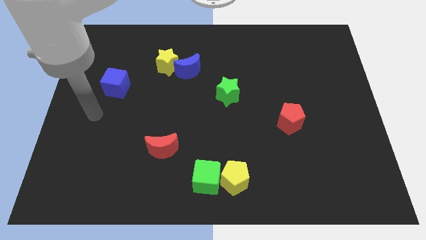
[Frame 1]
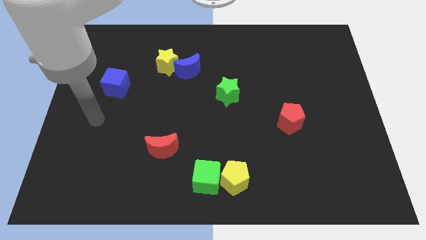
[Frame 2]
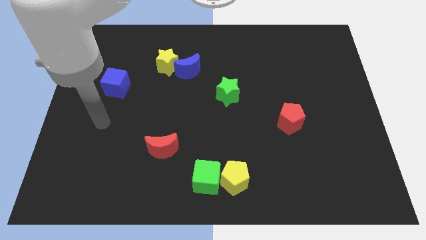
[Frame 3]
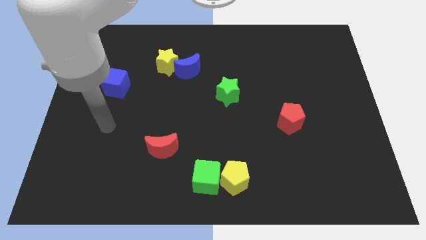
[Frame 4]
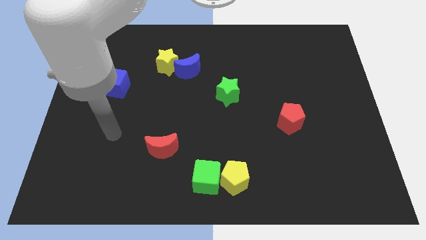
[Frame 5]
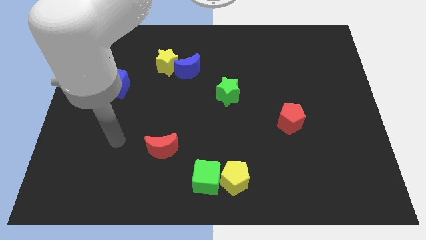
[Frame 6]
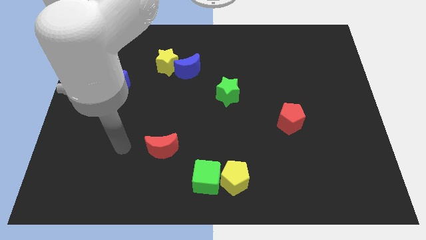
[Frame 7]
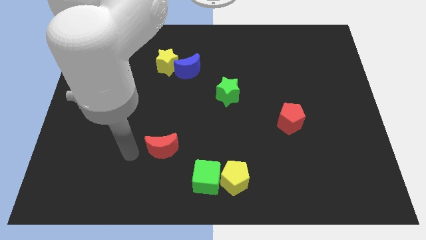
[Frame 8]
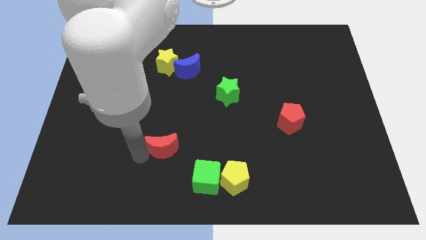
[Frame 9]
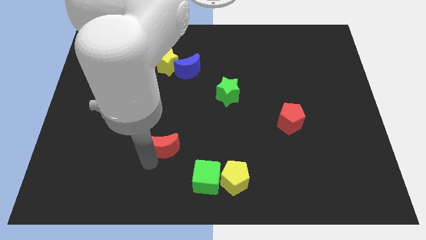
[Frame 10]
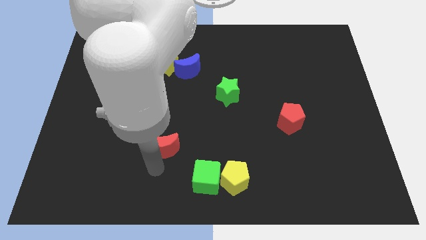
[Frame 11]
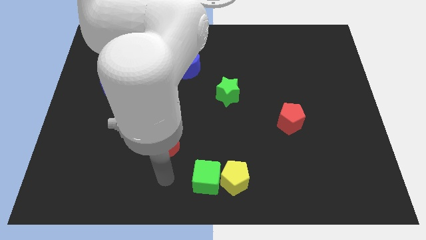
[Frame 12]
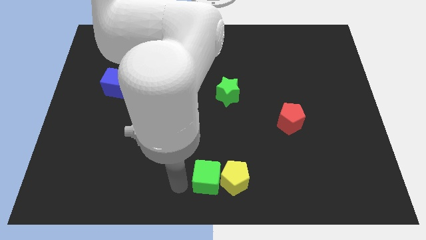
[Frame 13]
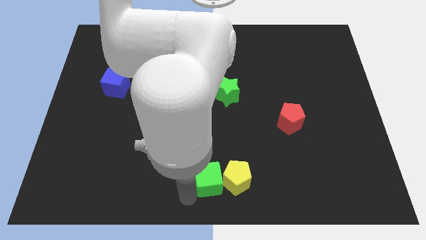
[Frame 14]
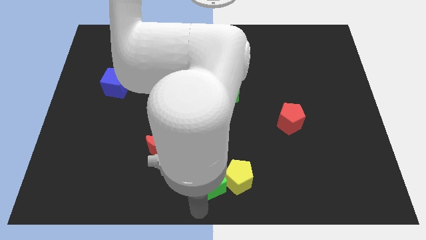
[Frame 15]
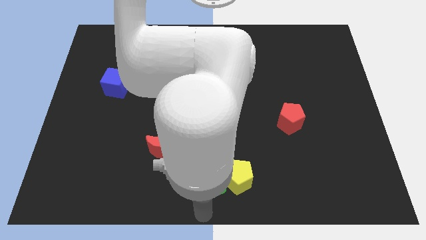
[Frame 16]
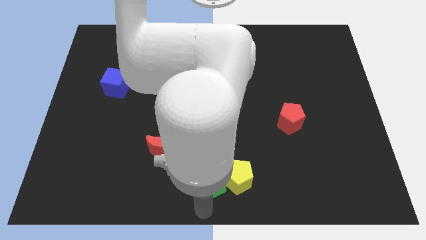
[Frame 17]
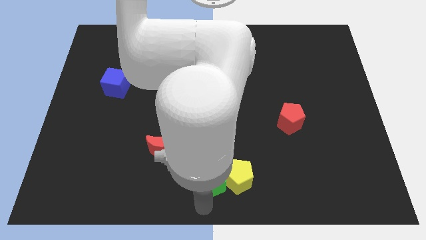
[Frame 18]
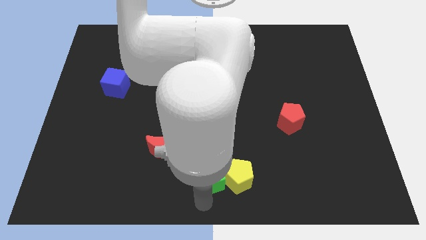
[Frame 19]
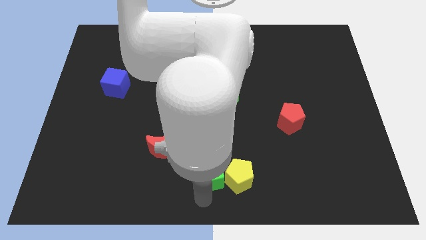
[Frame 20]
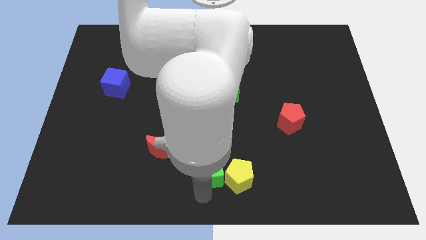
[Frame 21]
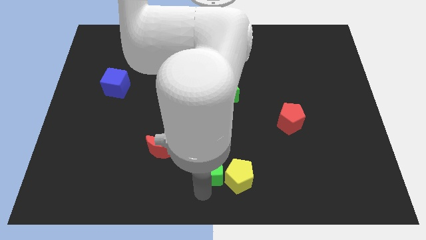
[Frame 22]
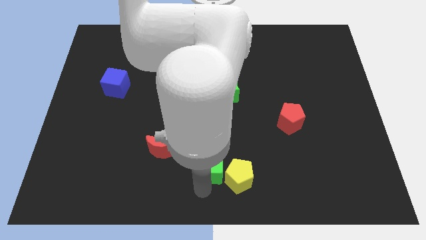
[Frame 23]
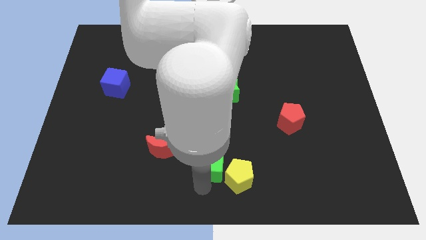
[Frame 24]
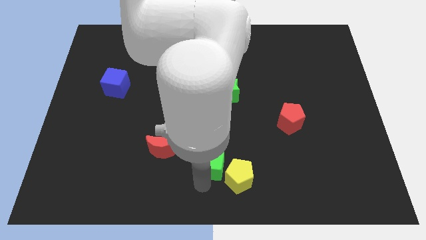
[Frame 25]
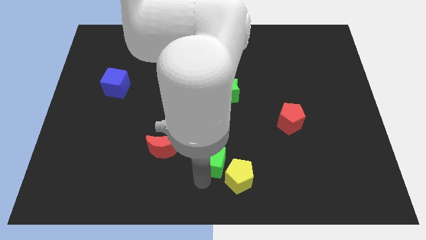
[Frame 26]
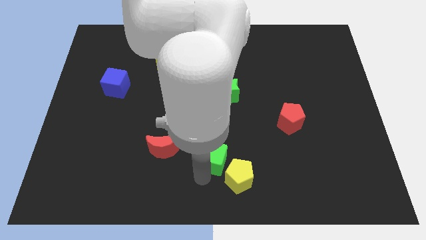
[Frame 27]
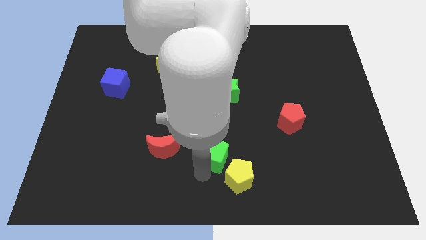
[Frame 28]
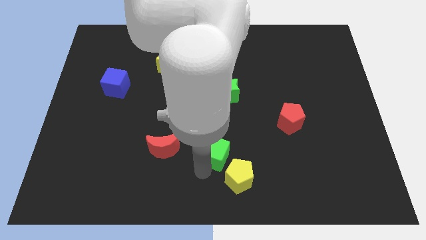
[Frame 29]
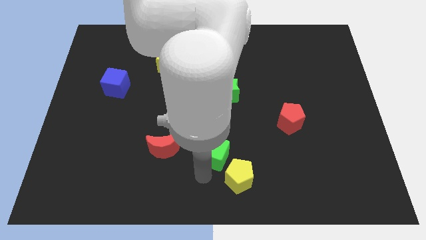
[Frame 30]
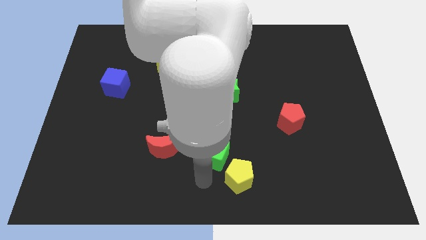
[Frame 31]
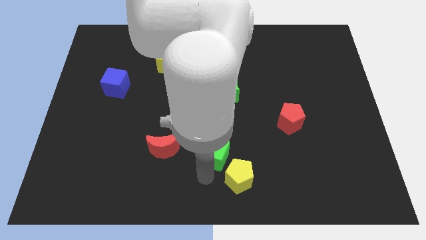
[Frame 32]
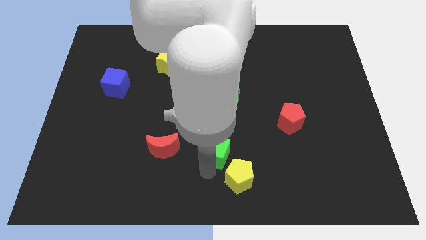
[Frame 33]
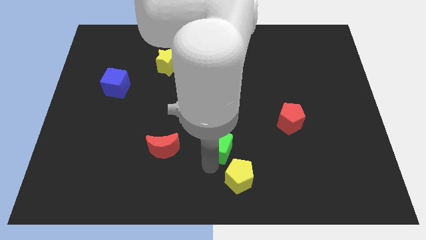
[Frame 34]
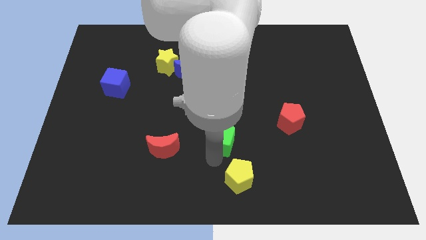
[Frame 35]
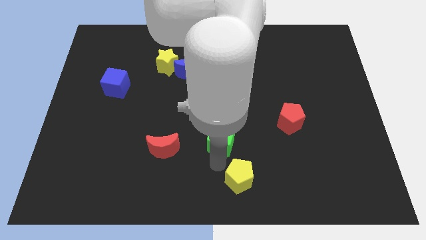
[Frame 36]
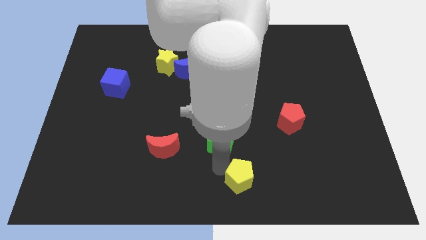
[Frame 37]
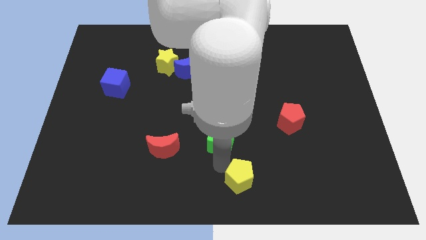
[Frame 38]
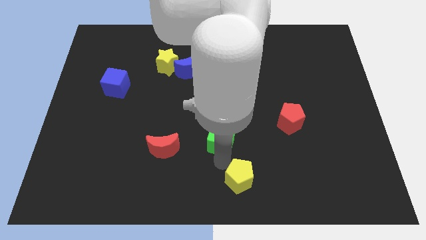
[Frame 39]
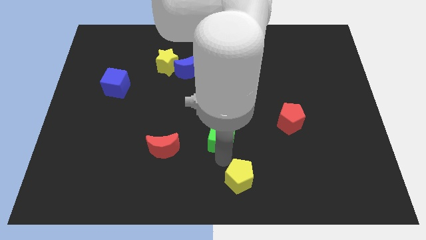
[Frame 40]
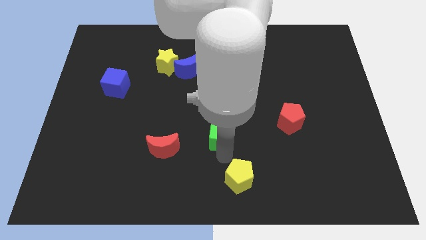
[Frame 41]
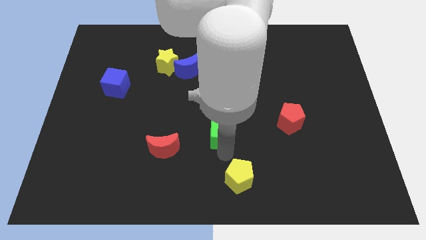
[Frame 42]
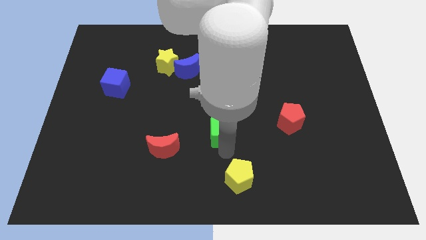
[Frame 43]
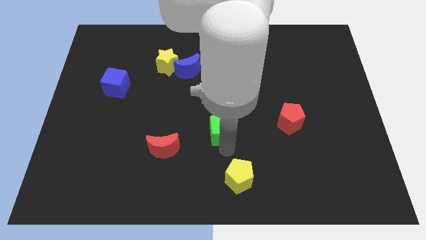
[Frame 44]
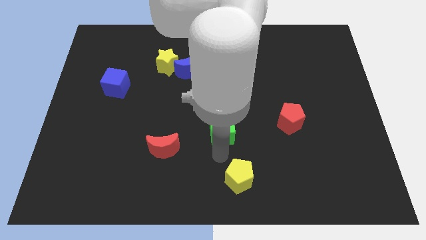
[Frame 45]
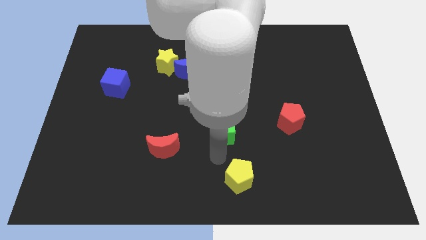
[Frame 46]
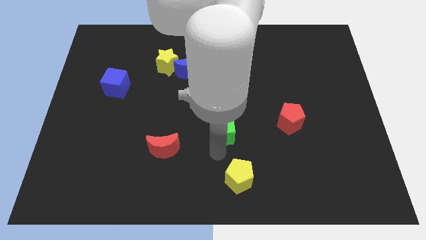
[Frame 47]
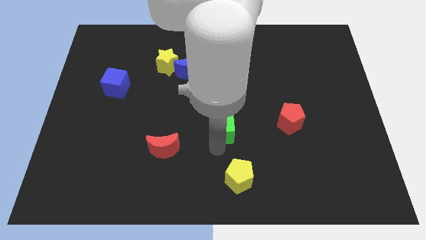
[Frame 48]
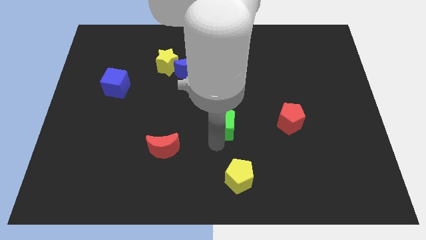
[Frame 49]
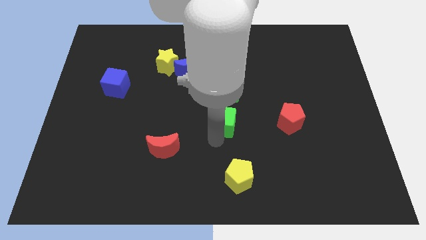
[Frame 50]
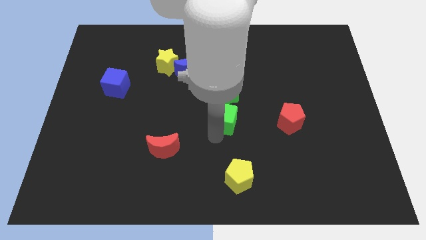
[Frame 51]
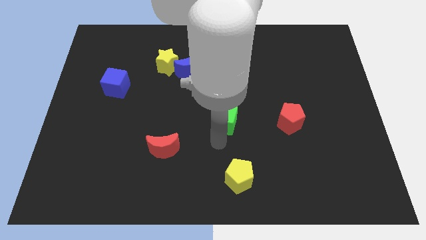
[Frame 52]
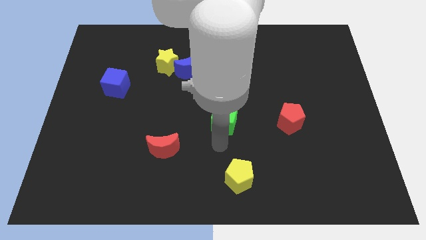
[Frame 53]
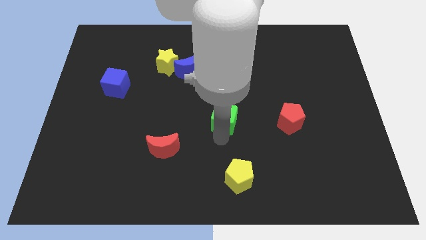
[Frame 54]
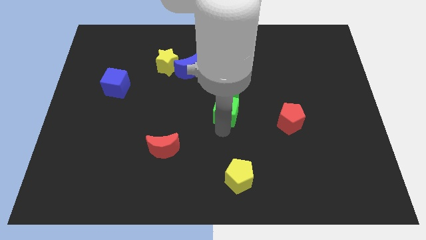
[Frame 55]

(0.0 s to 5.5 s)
put the green cube towards the green star

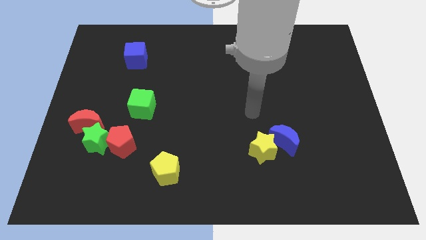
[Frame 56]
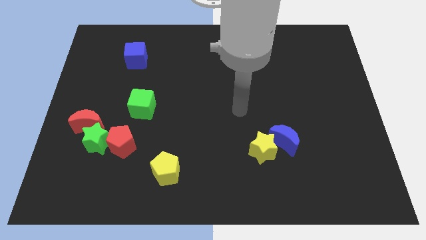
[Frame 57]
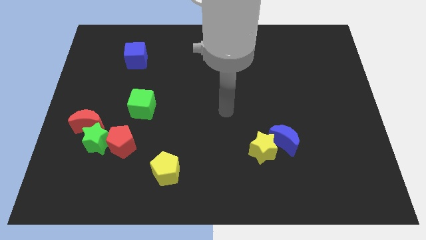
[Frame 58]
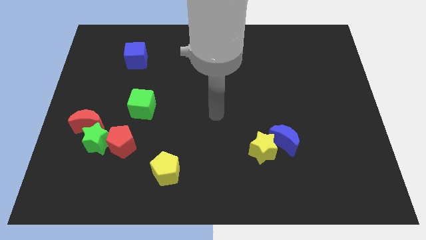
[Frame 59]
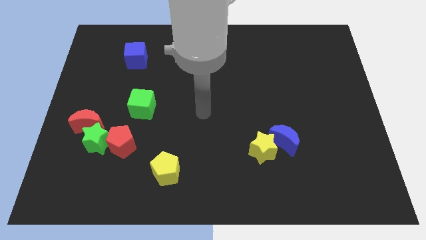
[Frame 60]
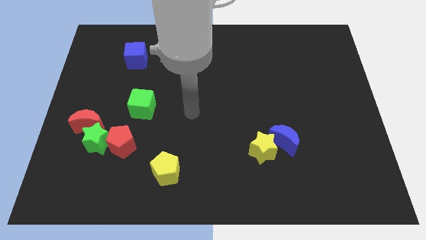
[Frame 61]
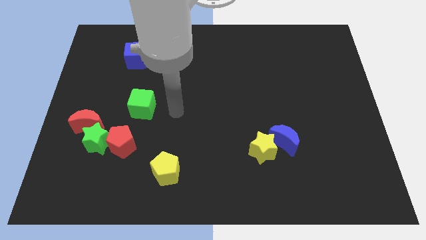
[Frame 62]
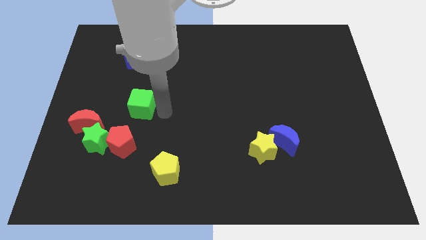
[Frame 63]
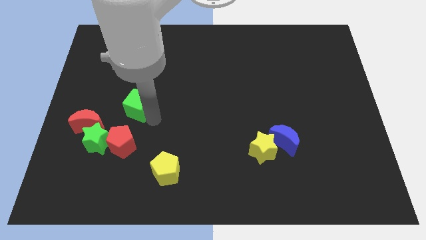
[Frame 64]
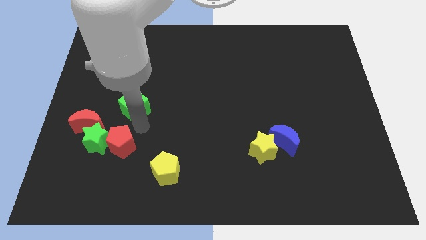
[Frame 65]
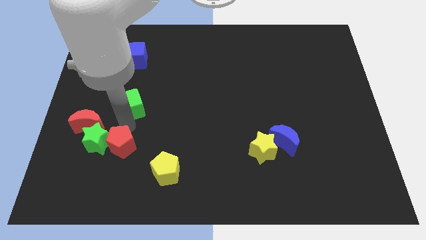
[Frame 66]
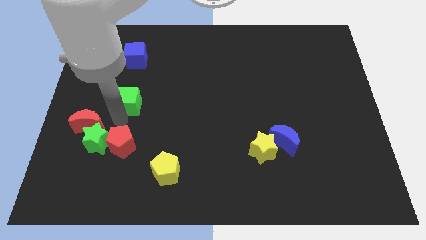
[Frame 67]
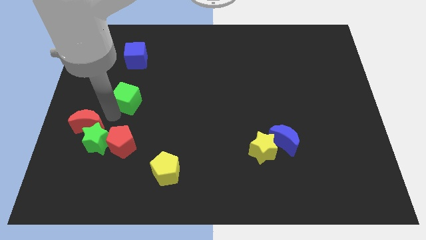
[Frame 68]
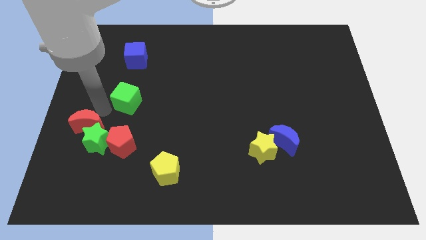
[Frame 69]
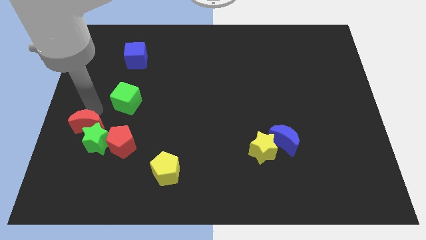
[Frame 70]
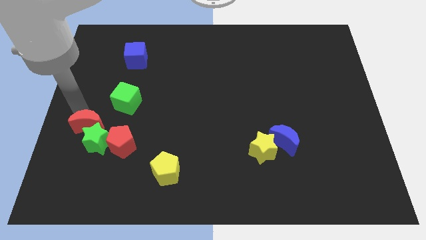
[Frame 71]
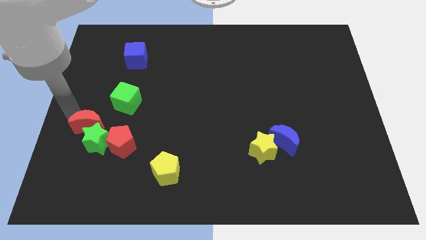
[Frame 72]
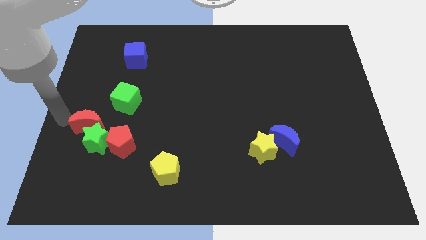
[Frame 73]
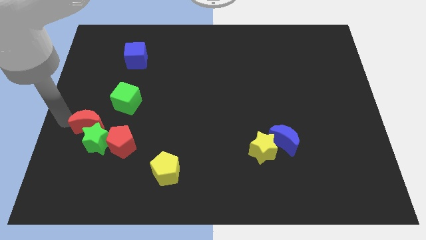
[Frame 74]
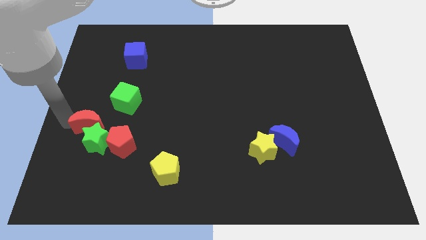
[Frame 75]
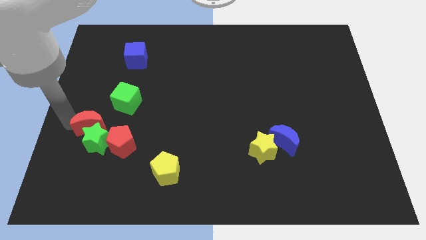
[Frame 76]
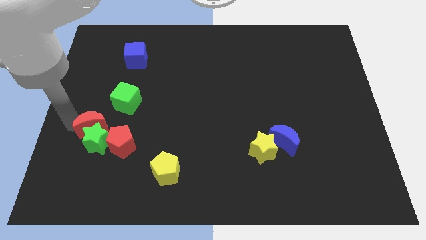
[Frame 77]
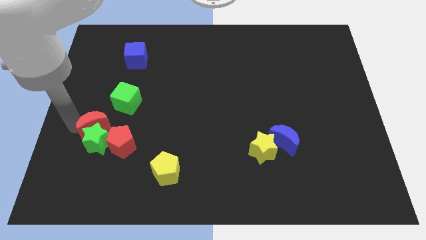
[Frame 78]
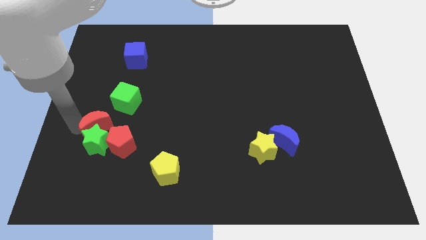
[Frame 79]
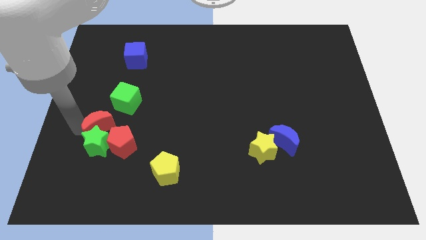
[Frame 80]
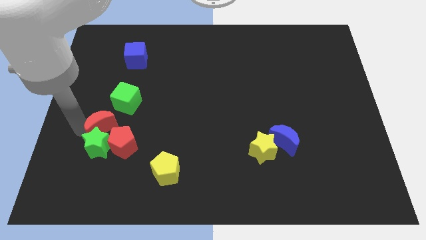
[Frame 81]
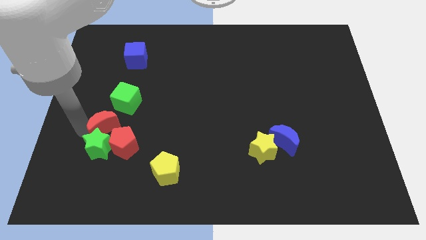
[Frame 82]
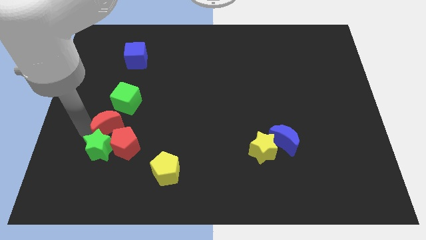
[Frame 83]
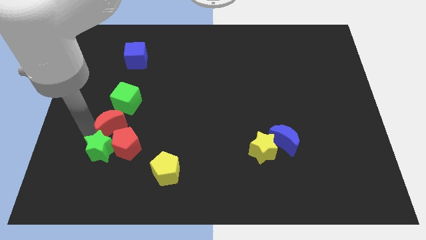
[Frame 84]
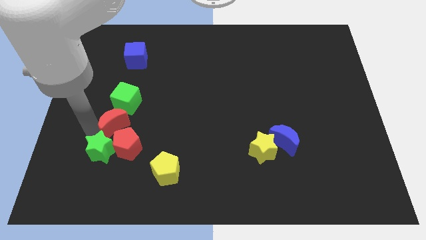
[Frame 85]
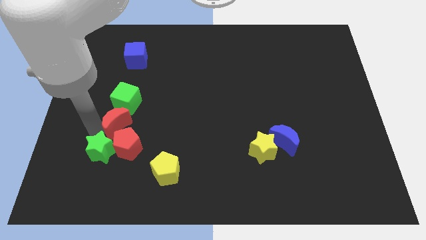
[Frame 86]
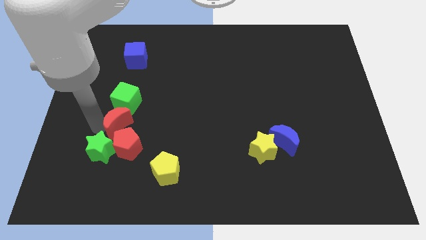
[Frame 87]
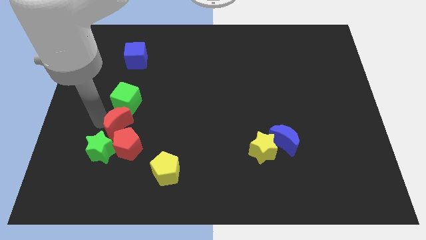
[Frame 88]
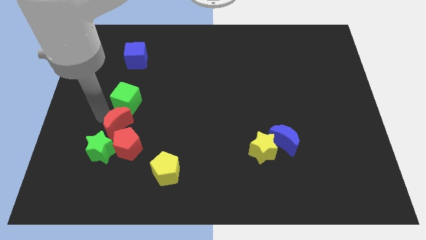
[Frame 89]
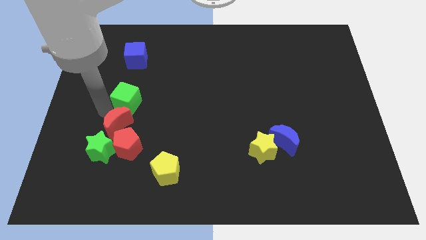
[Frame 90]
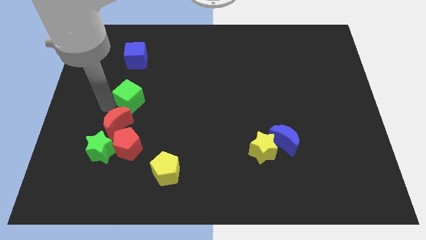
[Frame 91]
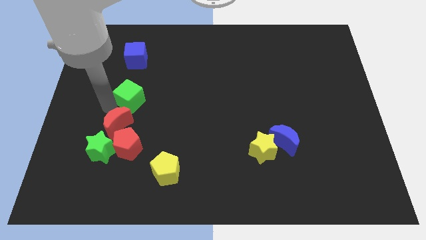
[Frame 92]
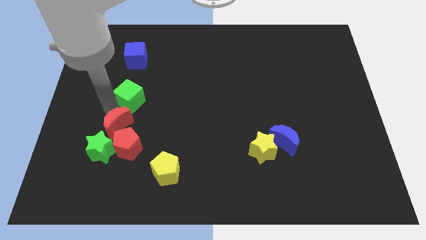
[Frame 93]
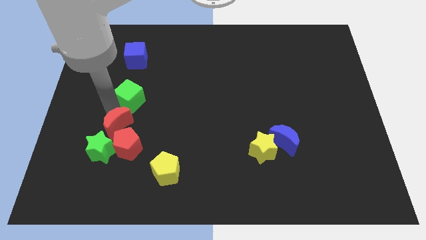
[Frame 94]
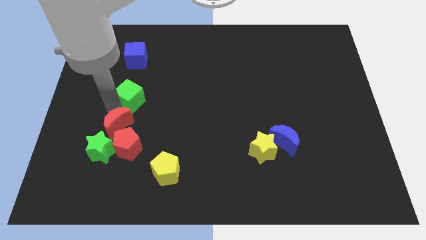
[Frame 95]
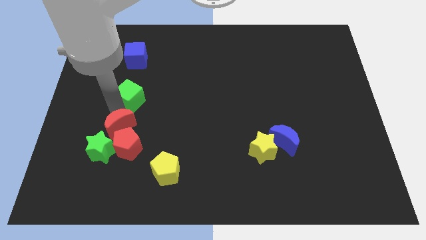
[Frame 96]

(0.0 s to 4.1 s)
push the red moon close to the red pentagon
